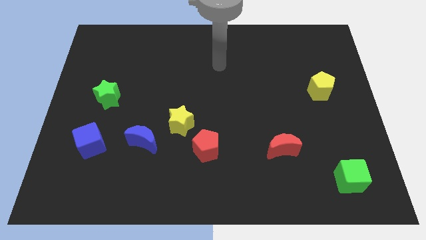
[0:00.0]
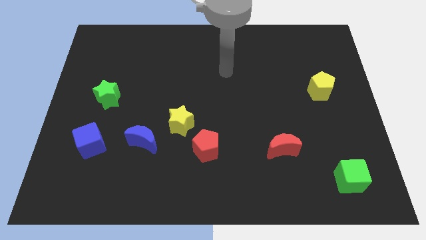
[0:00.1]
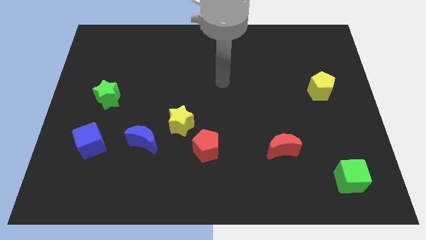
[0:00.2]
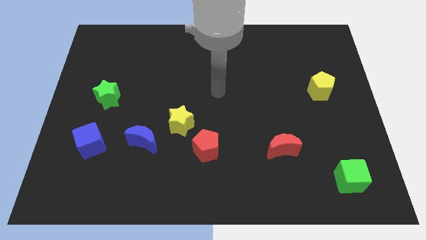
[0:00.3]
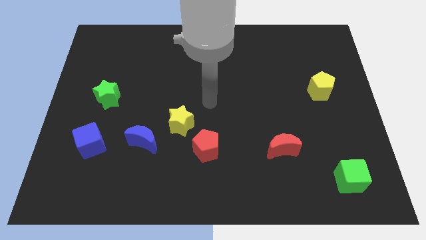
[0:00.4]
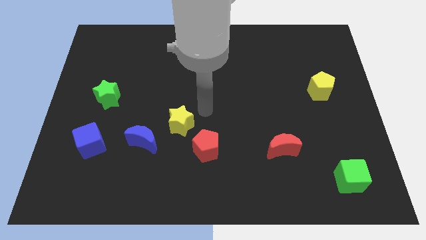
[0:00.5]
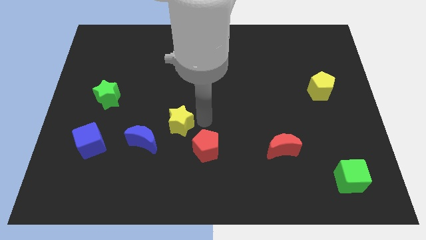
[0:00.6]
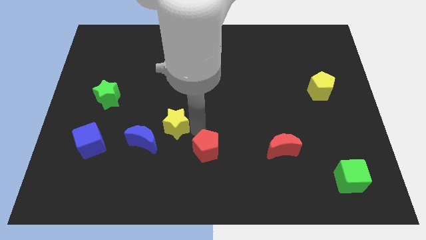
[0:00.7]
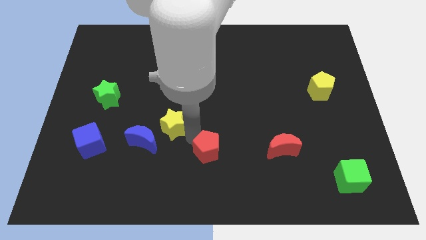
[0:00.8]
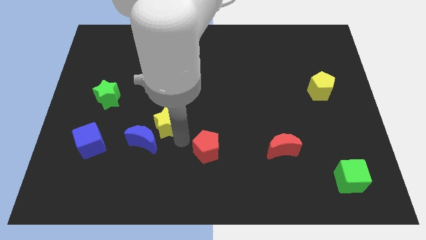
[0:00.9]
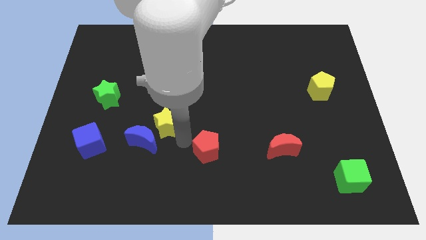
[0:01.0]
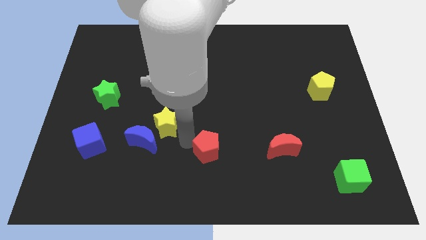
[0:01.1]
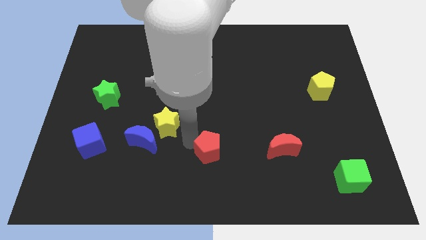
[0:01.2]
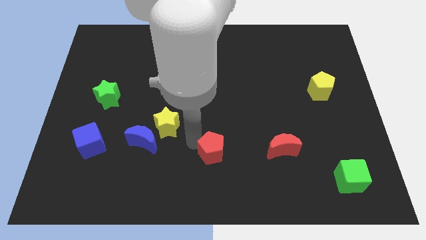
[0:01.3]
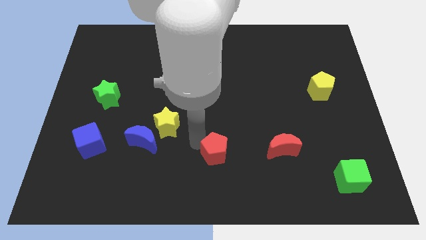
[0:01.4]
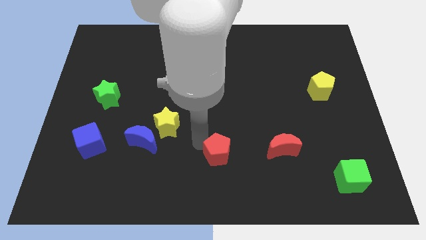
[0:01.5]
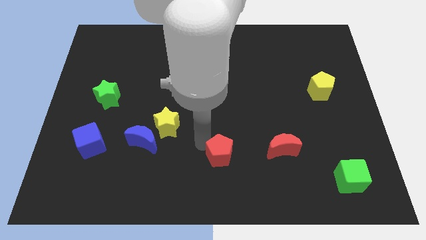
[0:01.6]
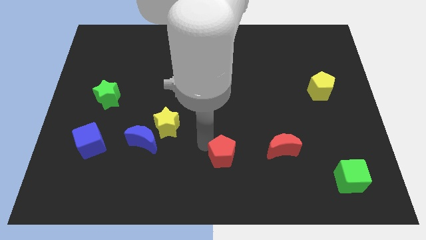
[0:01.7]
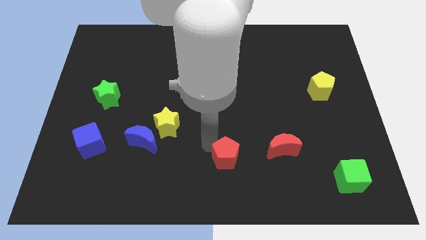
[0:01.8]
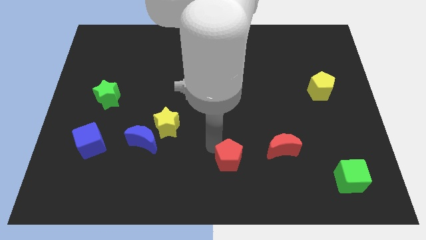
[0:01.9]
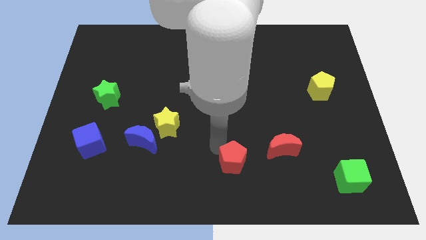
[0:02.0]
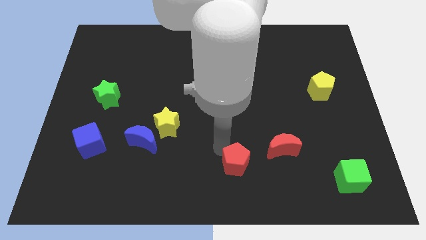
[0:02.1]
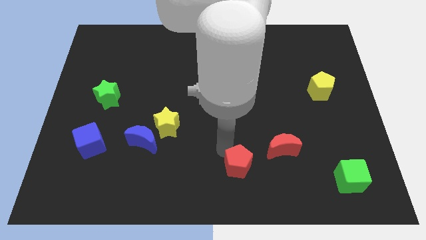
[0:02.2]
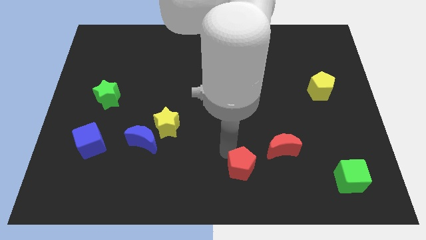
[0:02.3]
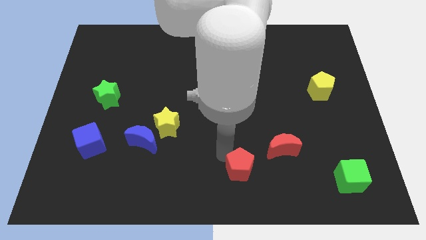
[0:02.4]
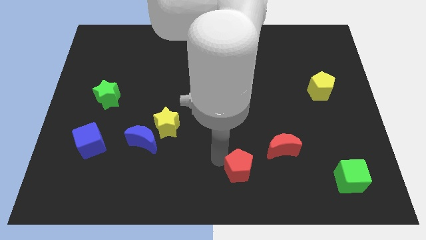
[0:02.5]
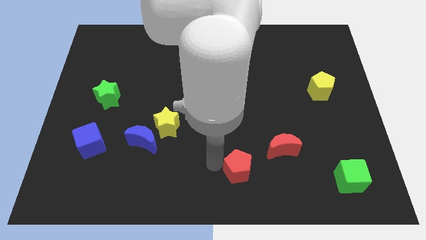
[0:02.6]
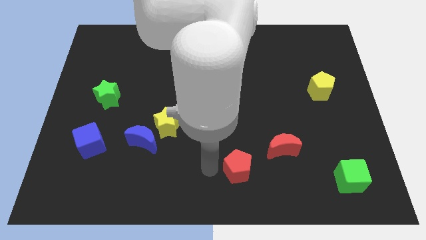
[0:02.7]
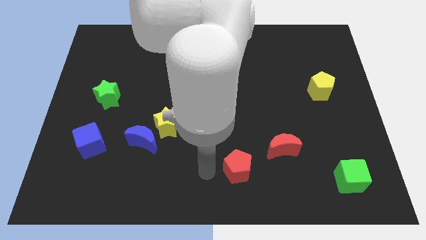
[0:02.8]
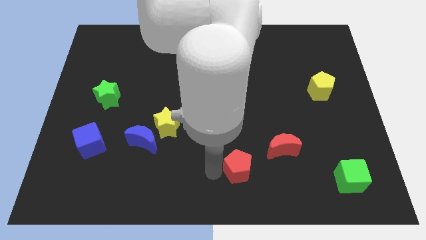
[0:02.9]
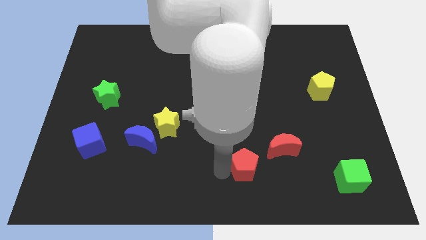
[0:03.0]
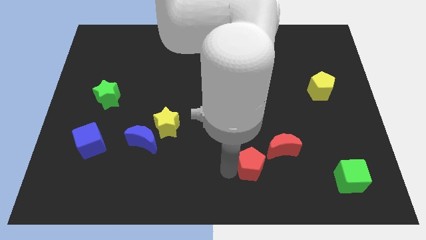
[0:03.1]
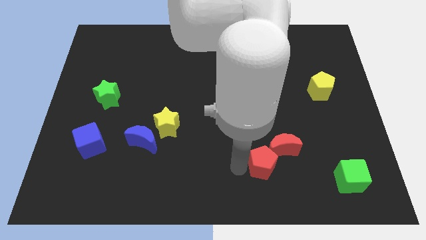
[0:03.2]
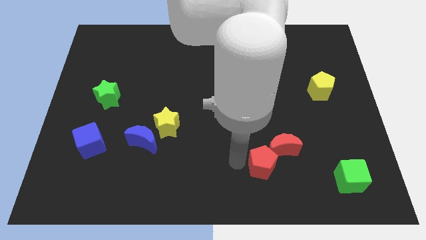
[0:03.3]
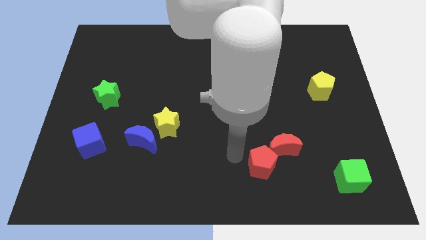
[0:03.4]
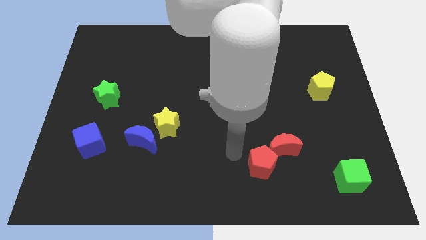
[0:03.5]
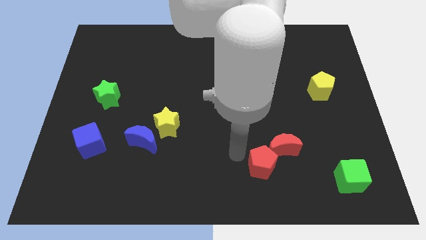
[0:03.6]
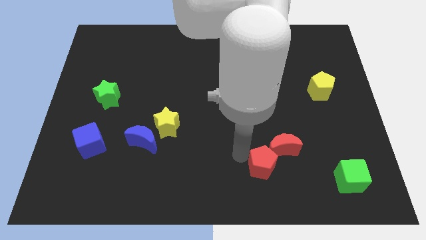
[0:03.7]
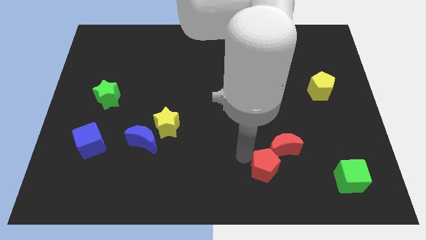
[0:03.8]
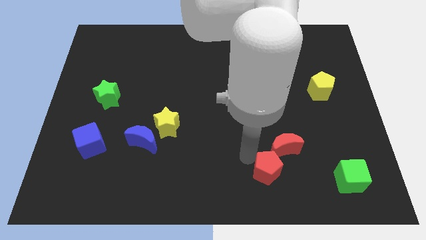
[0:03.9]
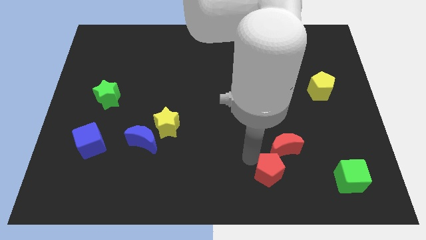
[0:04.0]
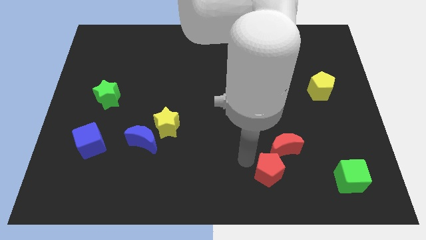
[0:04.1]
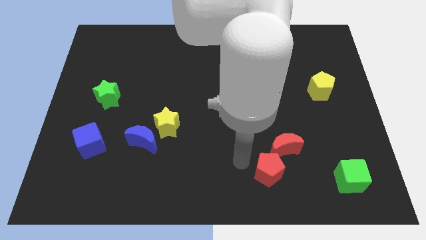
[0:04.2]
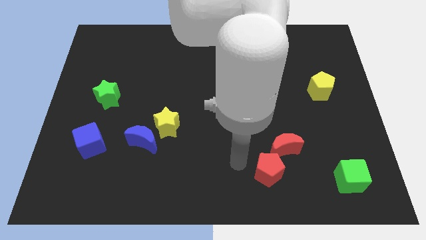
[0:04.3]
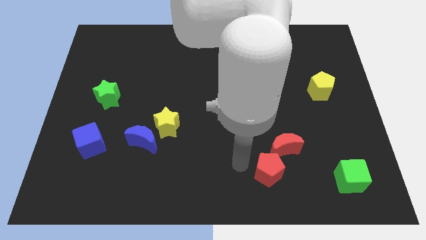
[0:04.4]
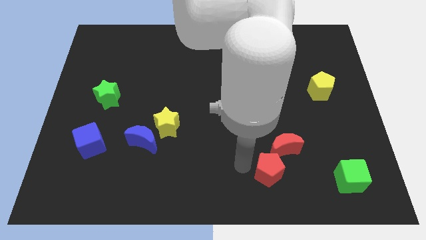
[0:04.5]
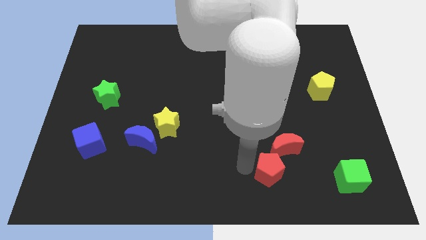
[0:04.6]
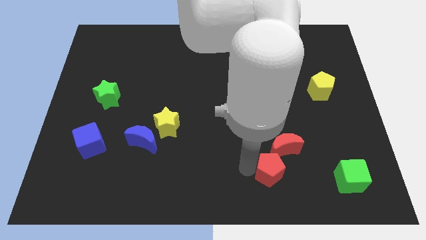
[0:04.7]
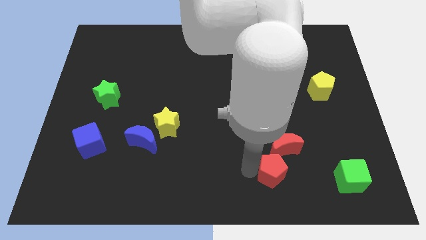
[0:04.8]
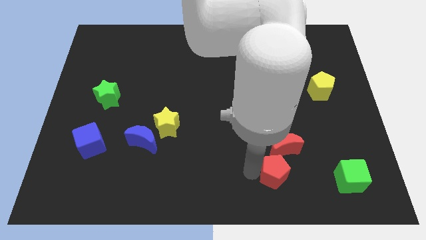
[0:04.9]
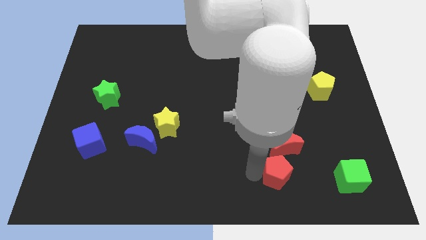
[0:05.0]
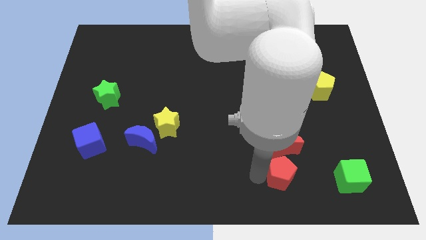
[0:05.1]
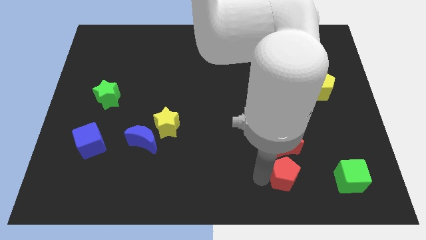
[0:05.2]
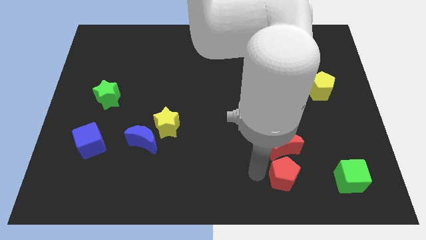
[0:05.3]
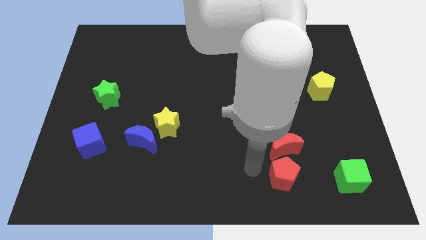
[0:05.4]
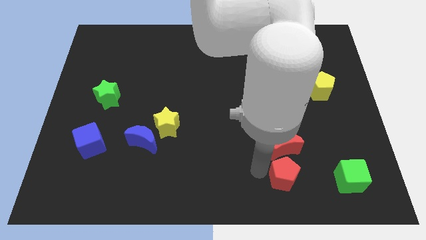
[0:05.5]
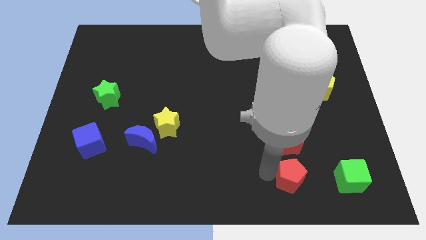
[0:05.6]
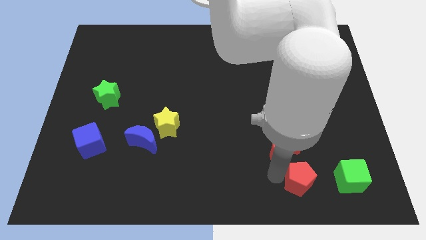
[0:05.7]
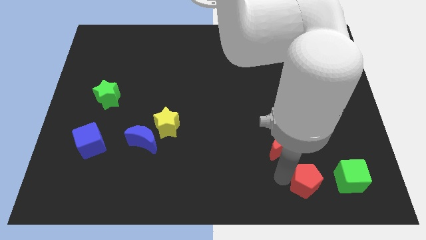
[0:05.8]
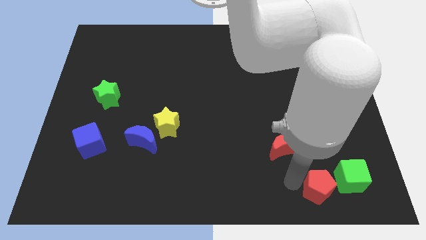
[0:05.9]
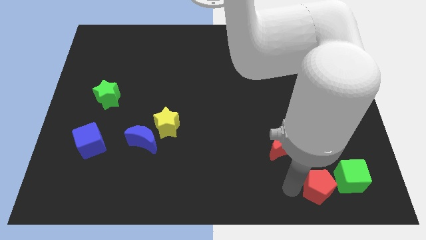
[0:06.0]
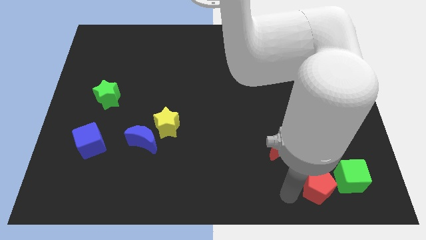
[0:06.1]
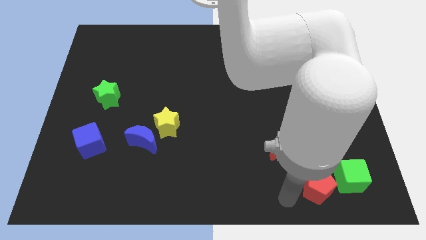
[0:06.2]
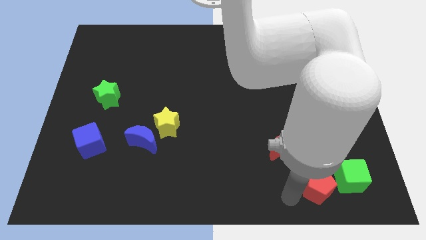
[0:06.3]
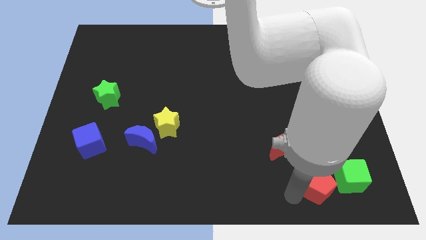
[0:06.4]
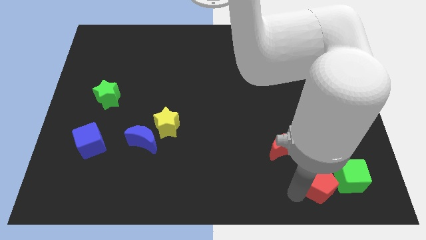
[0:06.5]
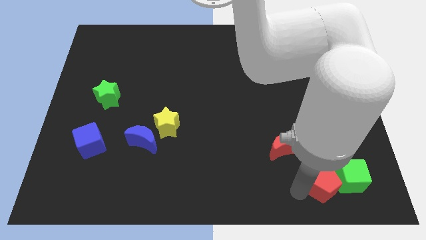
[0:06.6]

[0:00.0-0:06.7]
slide the red pentagon towards the green cube
